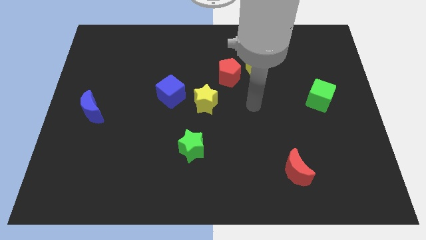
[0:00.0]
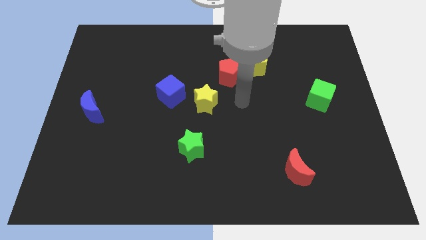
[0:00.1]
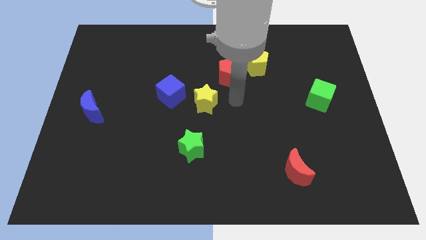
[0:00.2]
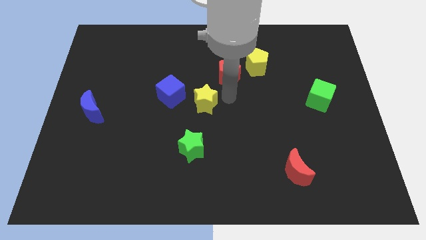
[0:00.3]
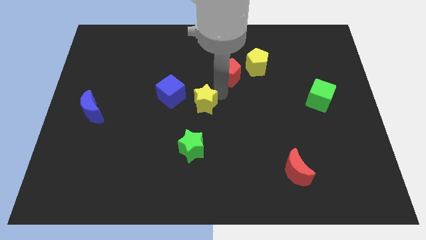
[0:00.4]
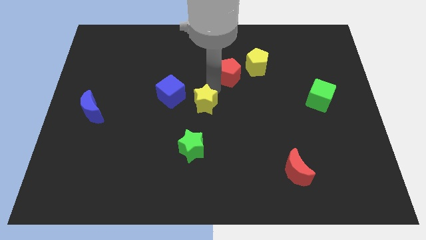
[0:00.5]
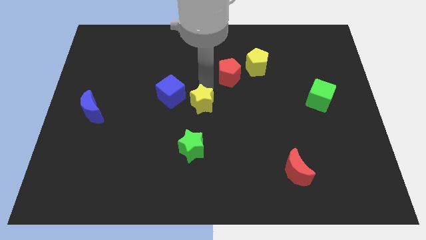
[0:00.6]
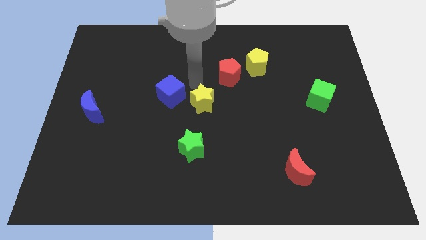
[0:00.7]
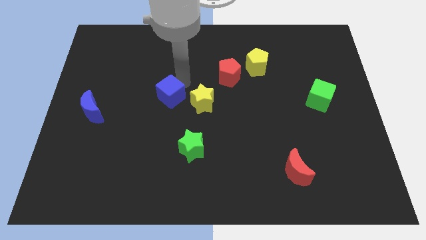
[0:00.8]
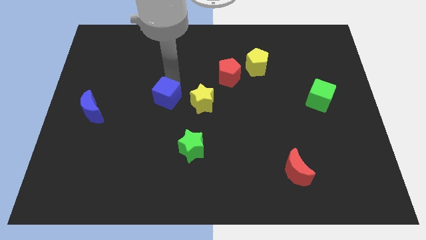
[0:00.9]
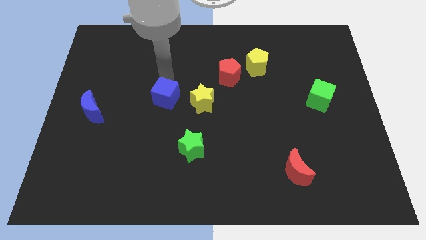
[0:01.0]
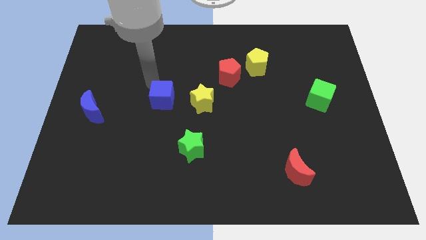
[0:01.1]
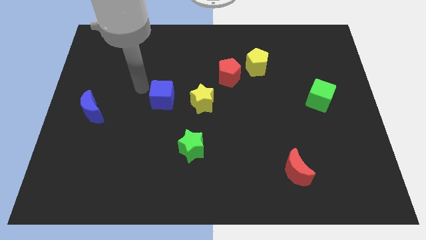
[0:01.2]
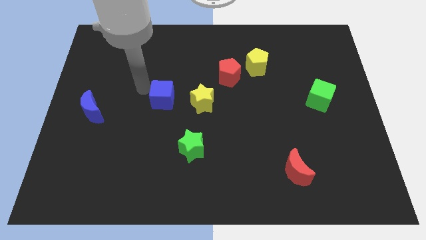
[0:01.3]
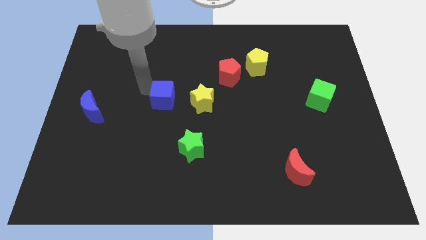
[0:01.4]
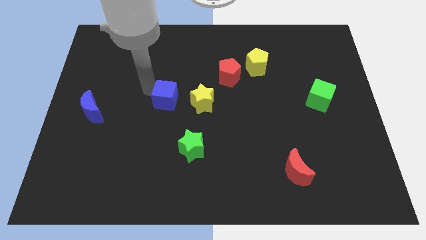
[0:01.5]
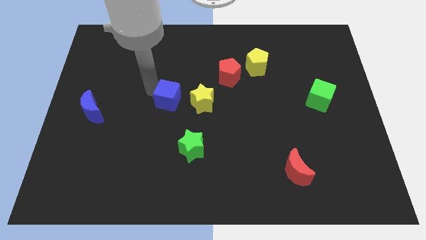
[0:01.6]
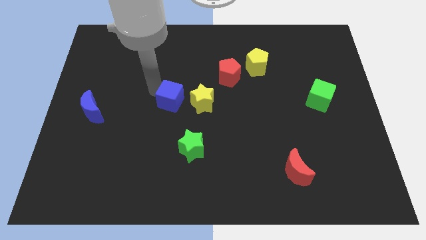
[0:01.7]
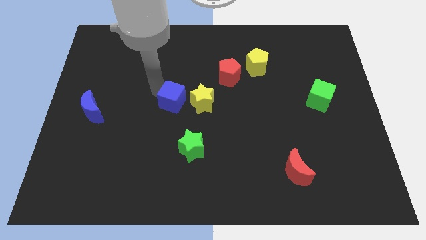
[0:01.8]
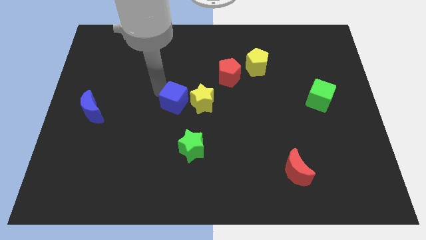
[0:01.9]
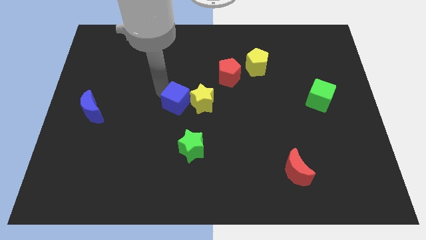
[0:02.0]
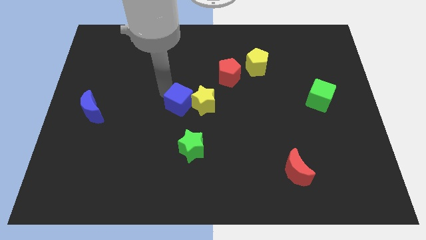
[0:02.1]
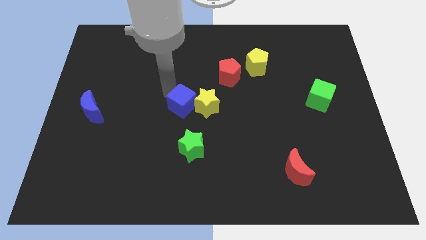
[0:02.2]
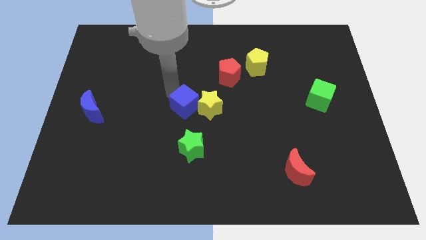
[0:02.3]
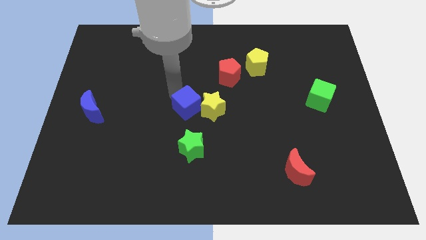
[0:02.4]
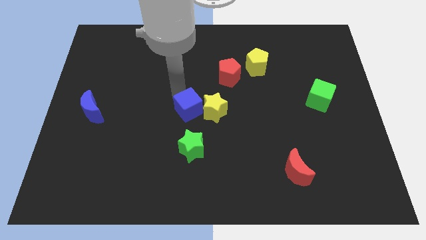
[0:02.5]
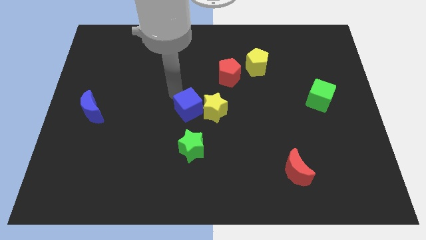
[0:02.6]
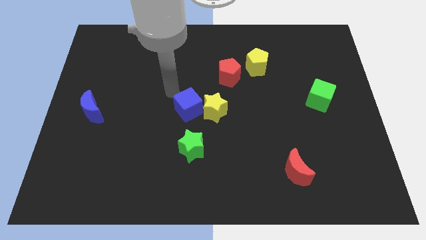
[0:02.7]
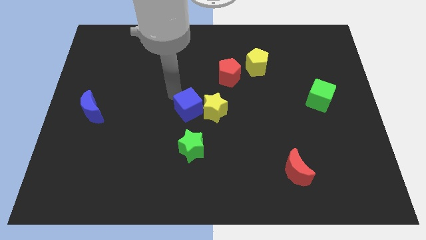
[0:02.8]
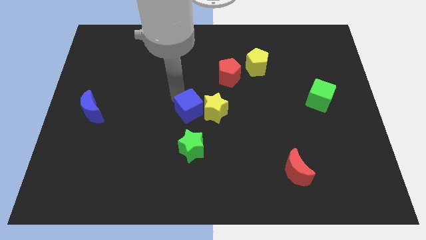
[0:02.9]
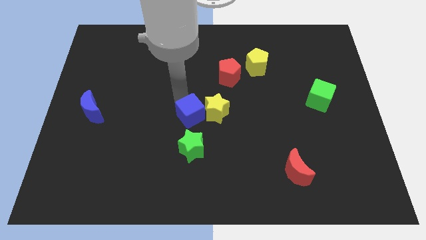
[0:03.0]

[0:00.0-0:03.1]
slightly push the blue cube down and right

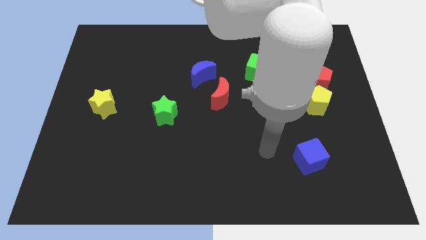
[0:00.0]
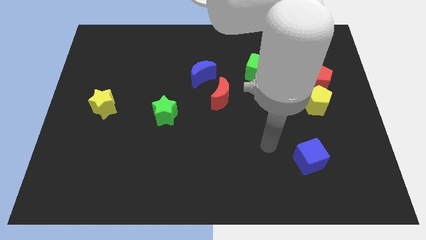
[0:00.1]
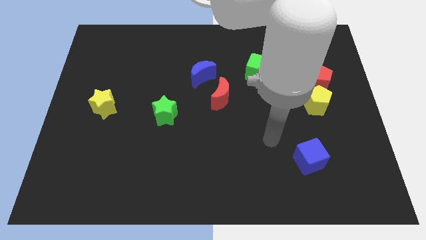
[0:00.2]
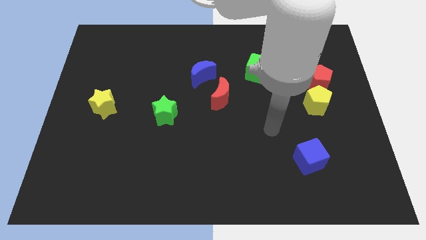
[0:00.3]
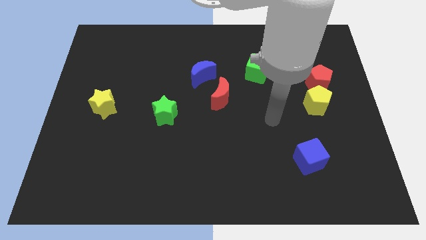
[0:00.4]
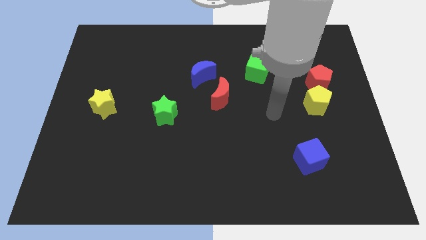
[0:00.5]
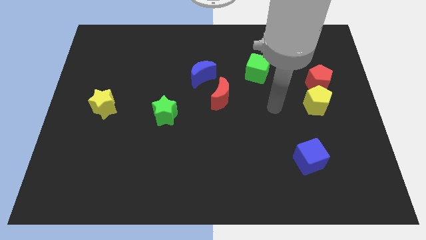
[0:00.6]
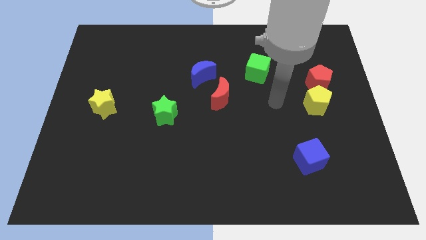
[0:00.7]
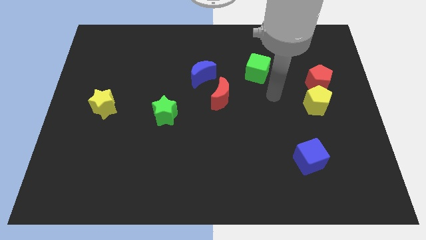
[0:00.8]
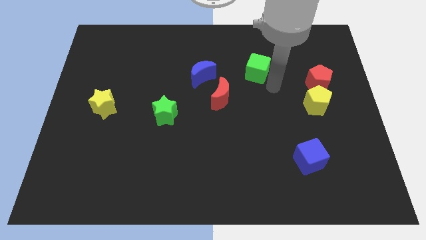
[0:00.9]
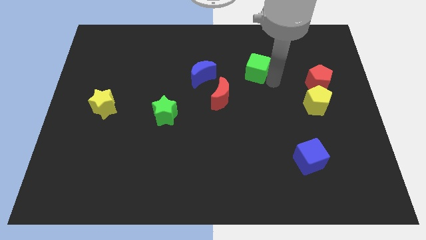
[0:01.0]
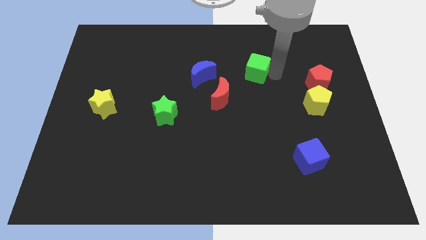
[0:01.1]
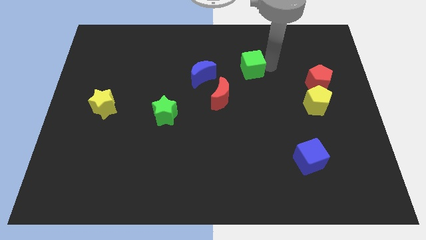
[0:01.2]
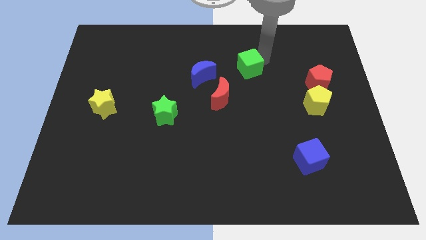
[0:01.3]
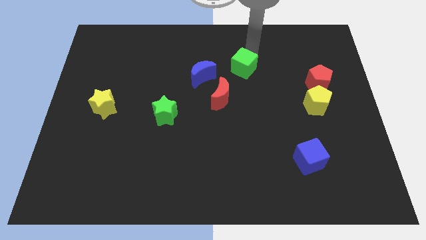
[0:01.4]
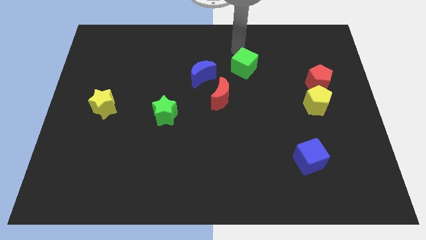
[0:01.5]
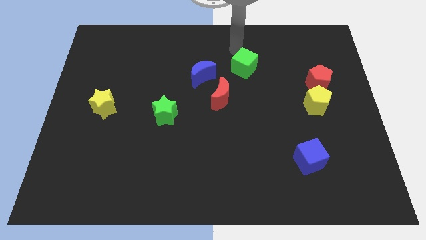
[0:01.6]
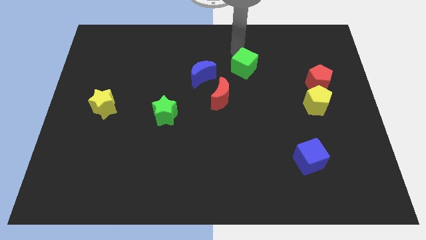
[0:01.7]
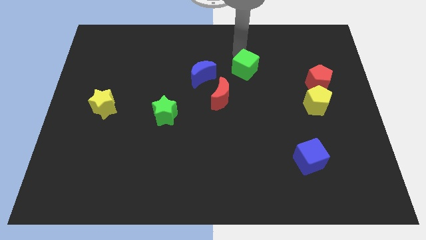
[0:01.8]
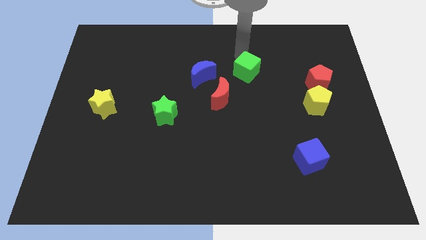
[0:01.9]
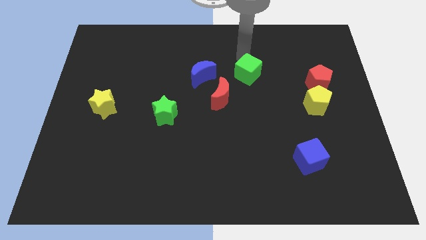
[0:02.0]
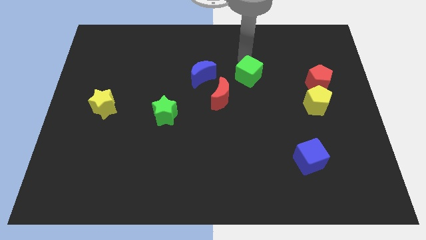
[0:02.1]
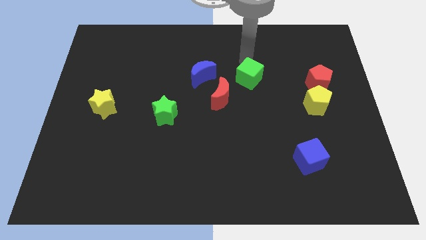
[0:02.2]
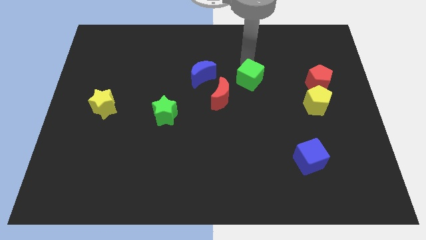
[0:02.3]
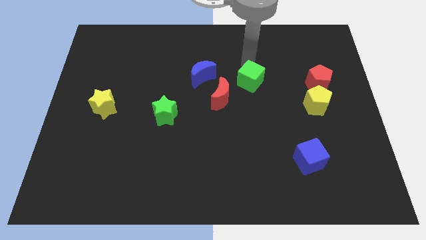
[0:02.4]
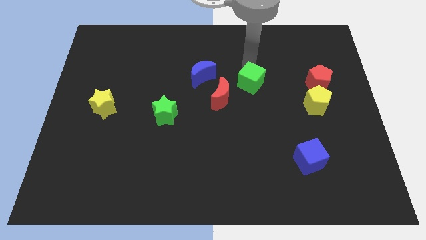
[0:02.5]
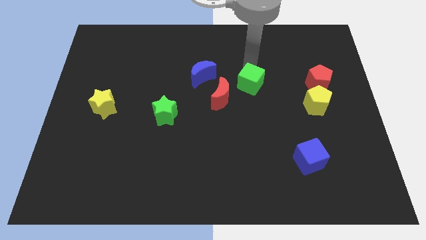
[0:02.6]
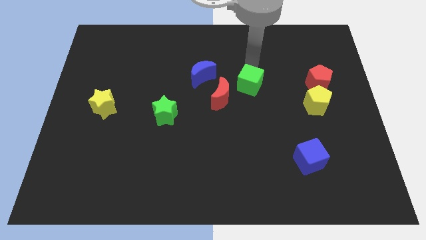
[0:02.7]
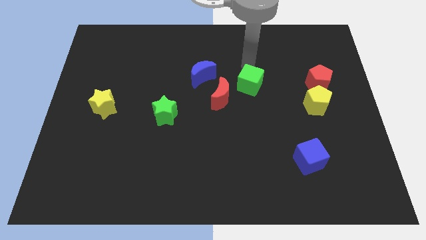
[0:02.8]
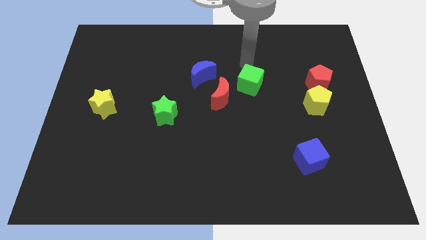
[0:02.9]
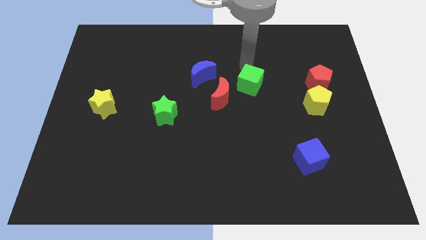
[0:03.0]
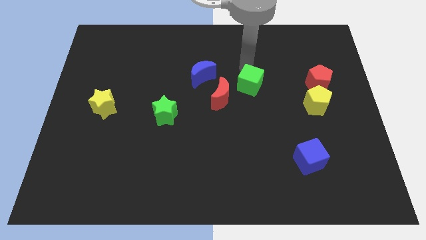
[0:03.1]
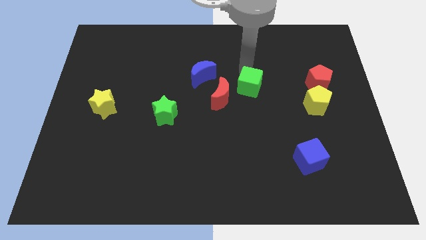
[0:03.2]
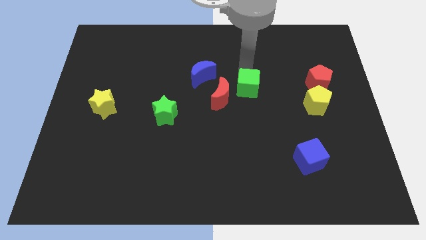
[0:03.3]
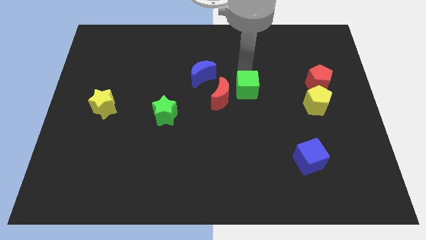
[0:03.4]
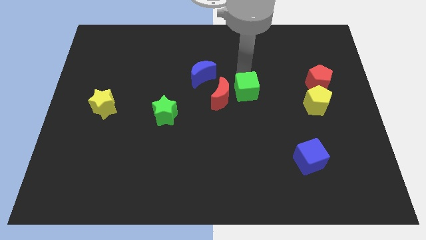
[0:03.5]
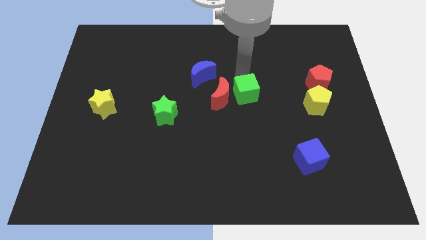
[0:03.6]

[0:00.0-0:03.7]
slightly slide the green cube downwards and left

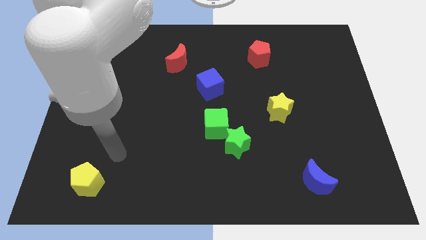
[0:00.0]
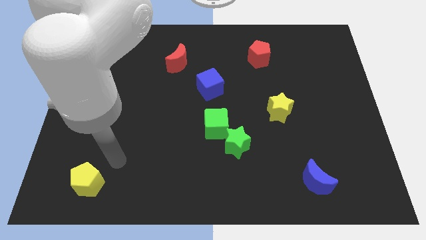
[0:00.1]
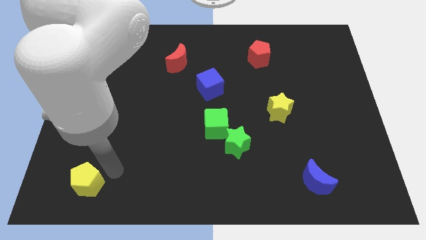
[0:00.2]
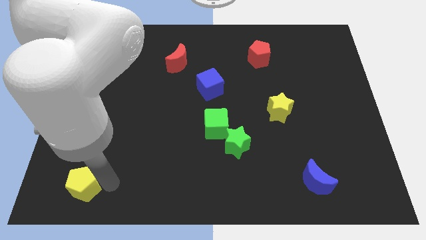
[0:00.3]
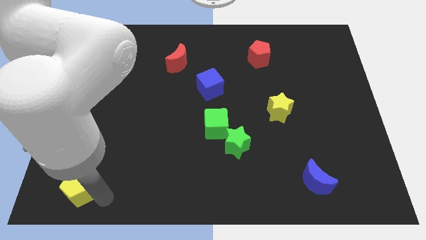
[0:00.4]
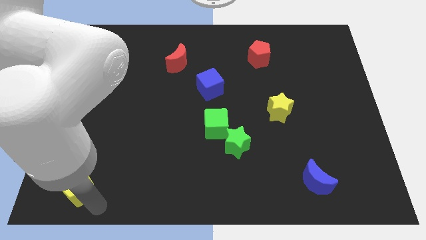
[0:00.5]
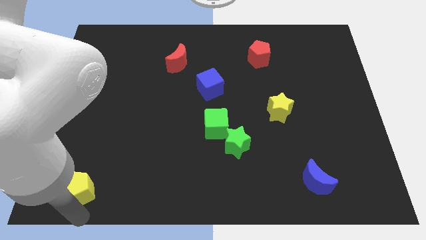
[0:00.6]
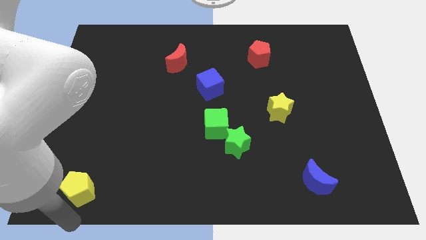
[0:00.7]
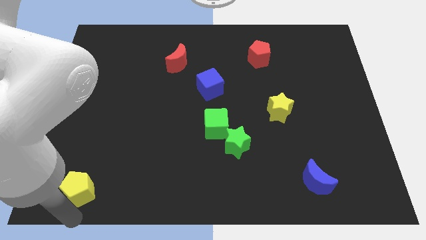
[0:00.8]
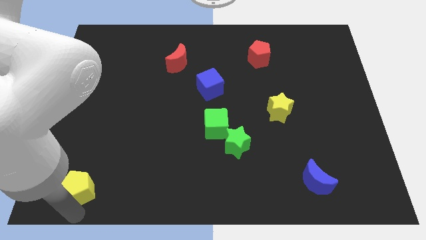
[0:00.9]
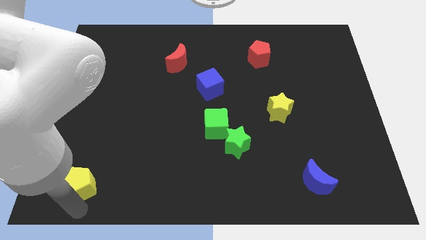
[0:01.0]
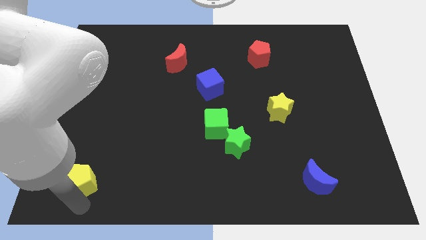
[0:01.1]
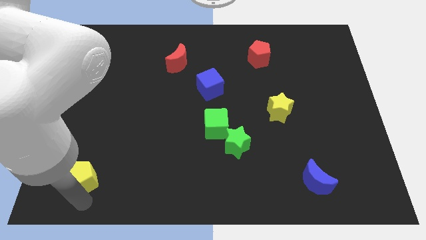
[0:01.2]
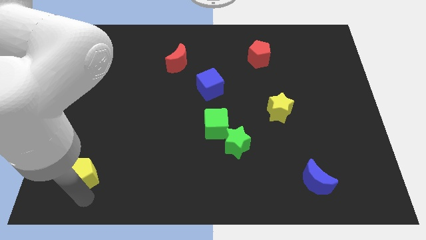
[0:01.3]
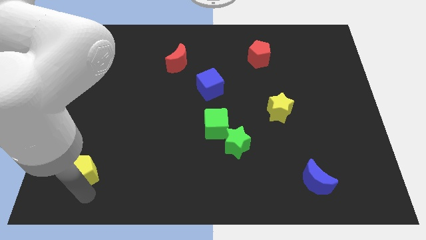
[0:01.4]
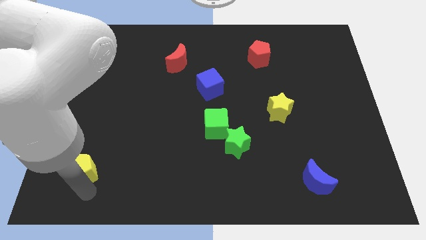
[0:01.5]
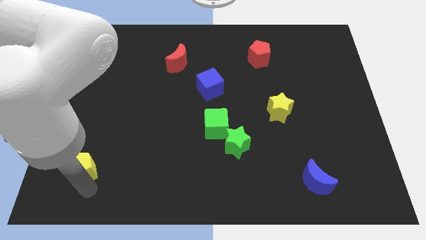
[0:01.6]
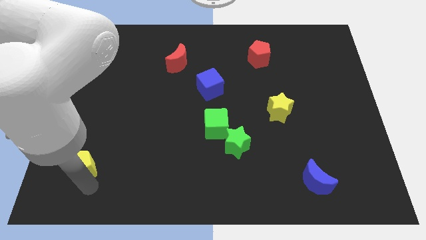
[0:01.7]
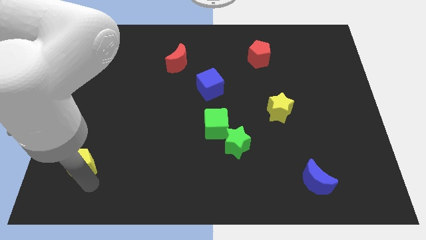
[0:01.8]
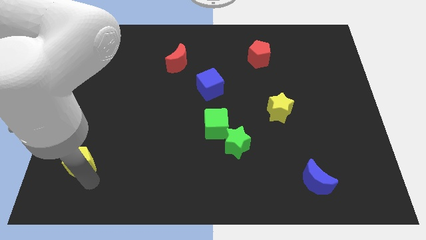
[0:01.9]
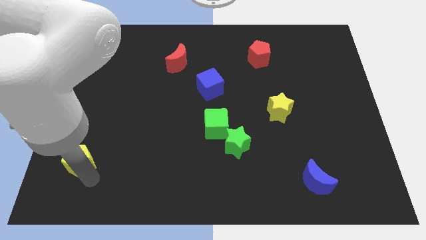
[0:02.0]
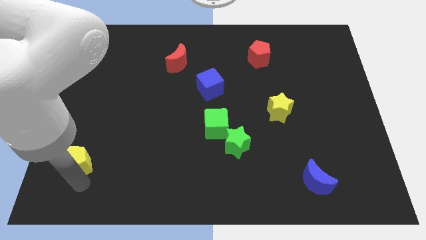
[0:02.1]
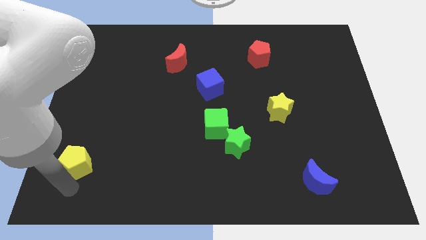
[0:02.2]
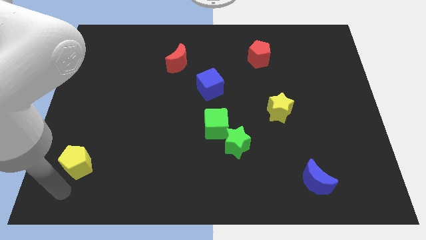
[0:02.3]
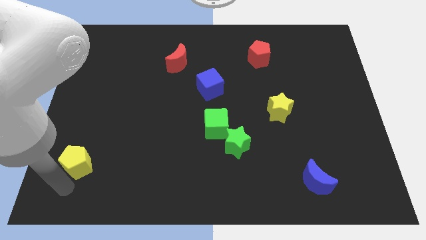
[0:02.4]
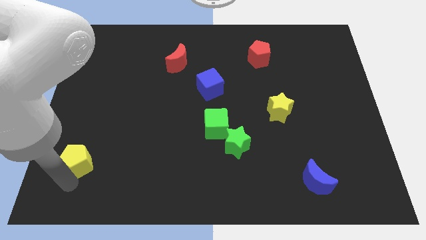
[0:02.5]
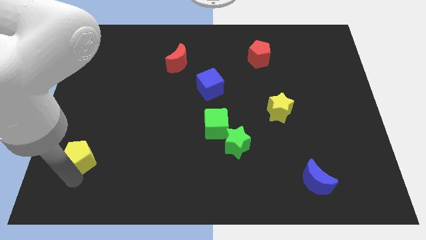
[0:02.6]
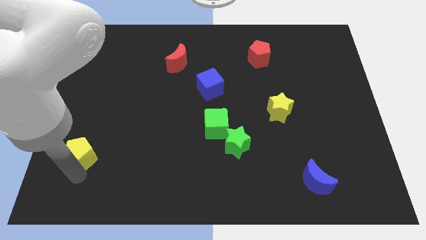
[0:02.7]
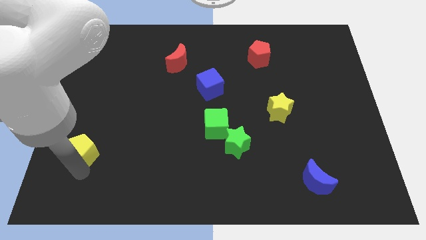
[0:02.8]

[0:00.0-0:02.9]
slightly push the yellow pentagon upwards
